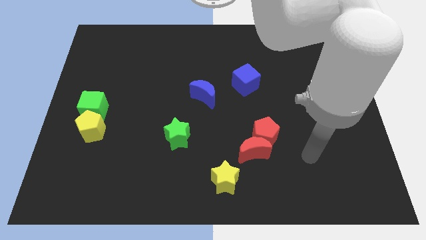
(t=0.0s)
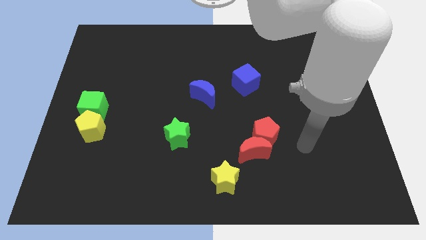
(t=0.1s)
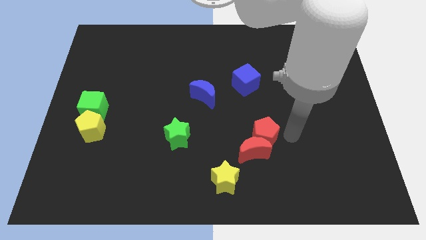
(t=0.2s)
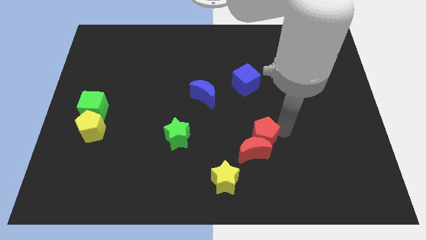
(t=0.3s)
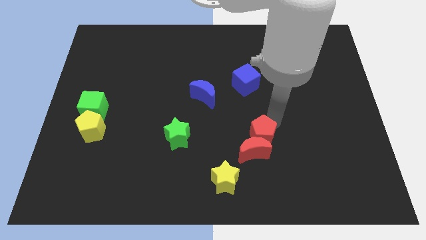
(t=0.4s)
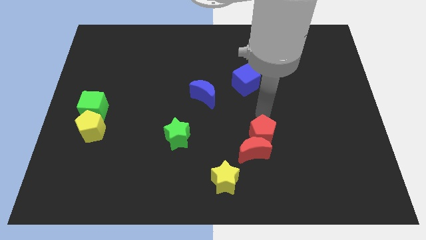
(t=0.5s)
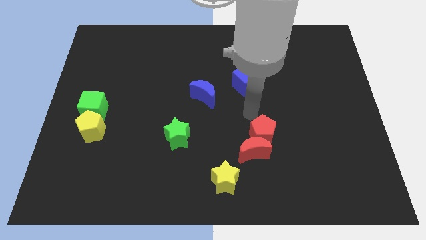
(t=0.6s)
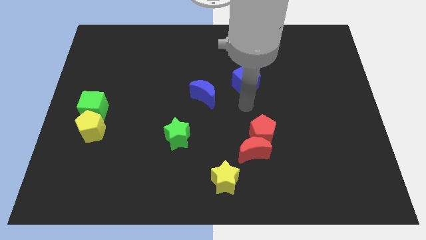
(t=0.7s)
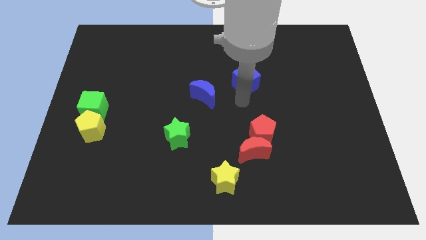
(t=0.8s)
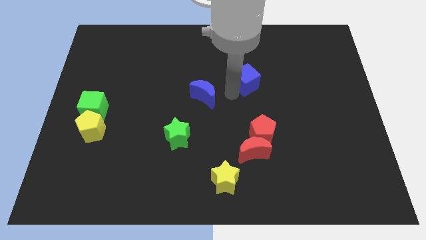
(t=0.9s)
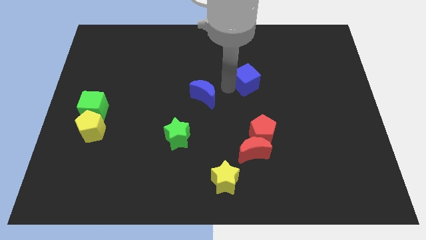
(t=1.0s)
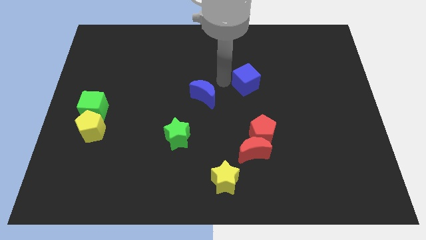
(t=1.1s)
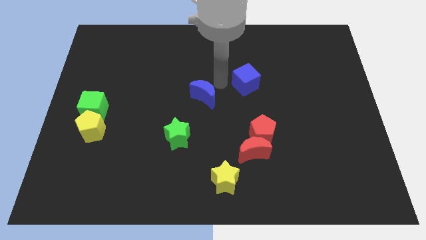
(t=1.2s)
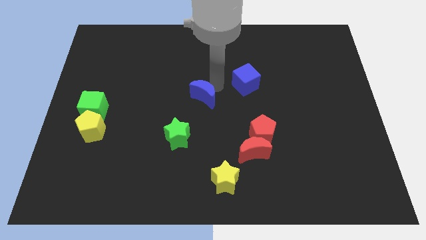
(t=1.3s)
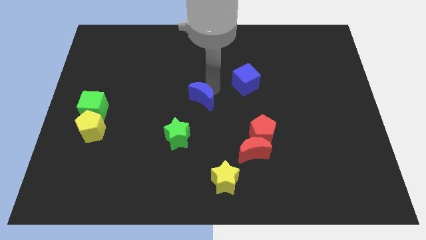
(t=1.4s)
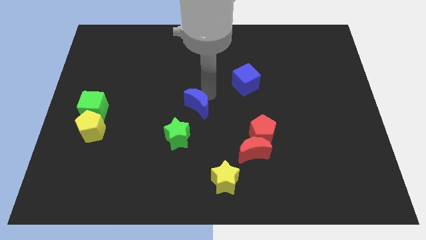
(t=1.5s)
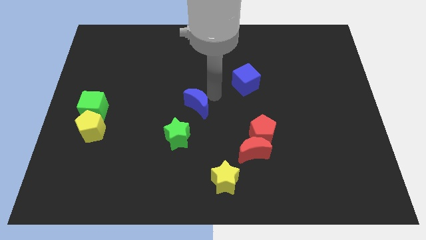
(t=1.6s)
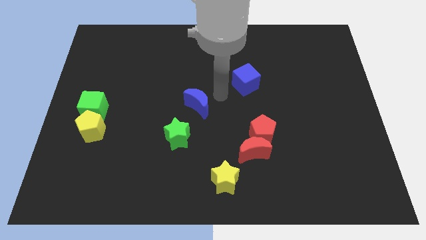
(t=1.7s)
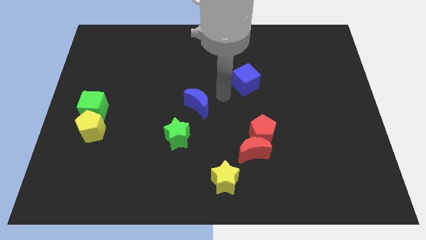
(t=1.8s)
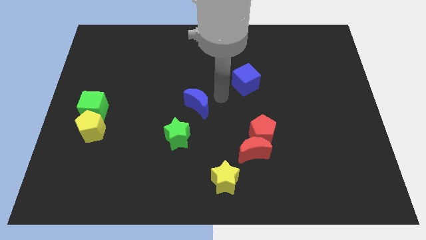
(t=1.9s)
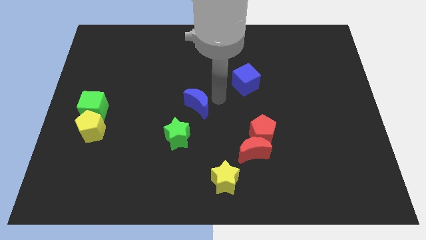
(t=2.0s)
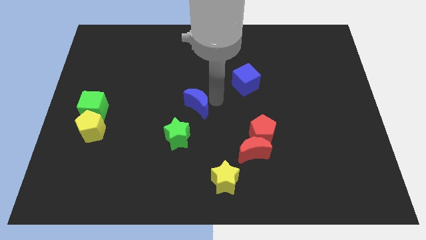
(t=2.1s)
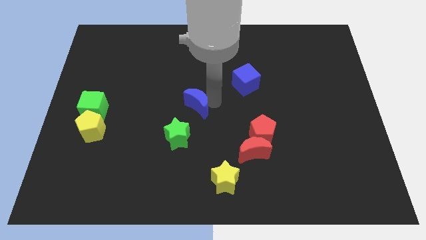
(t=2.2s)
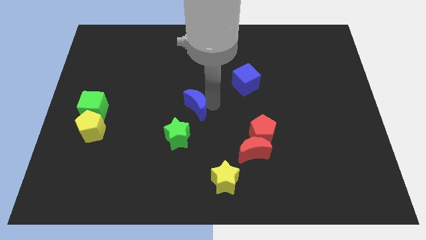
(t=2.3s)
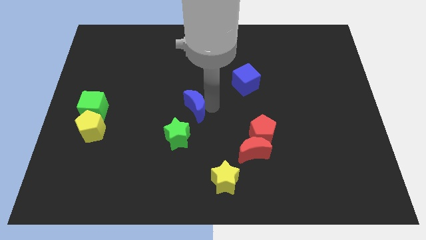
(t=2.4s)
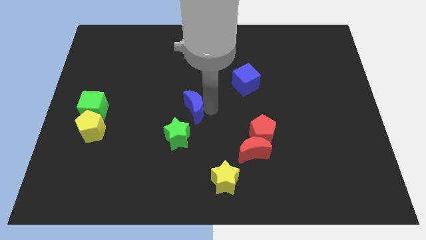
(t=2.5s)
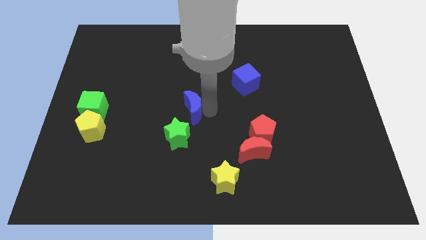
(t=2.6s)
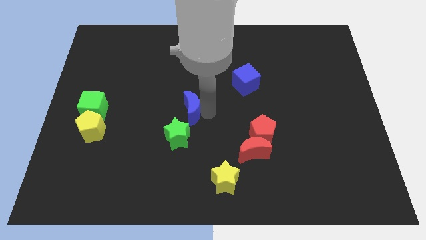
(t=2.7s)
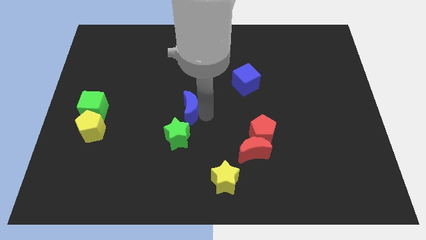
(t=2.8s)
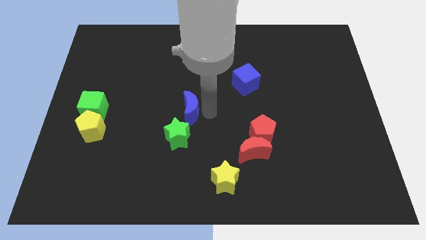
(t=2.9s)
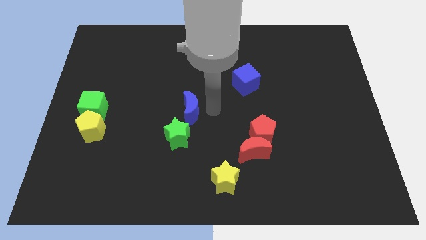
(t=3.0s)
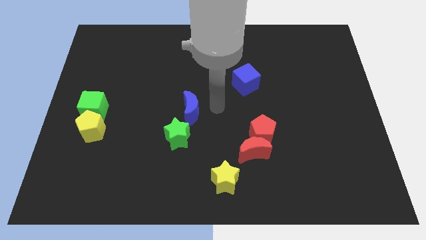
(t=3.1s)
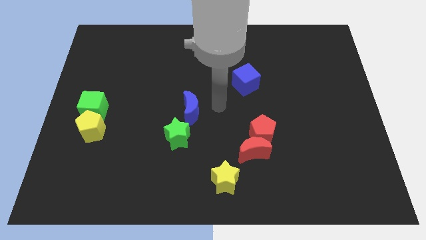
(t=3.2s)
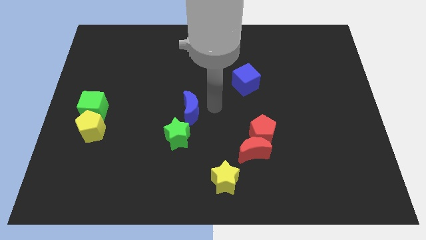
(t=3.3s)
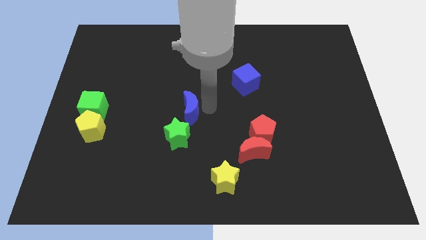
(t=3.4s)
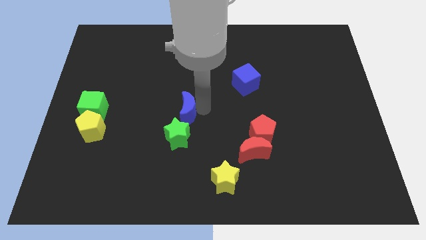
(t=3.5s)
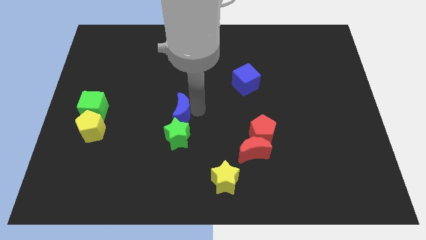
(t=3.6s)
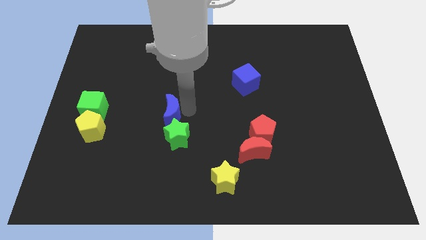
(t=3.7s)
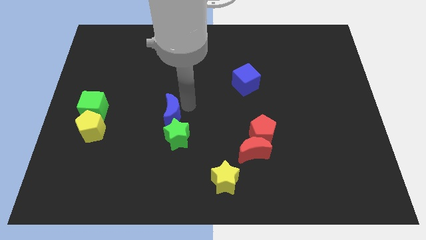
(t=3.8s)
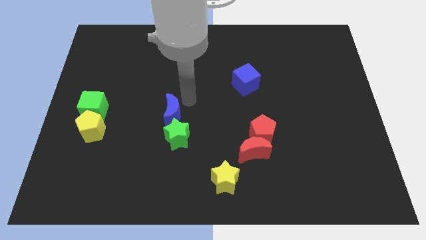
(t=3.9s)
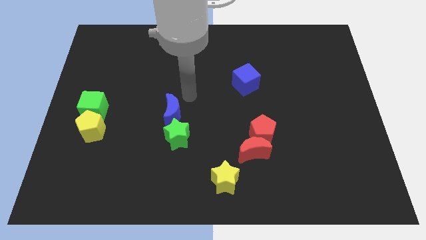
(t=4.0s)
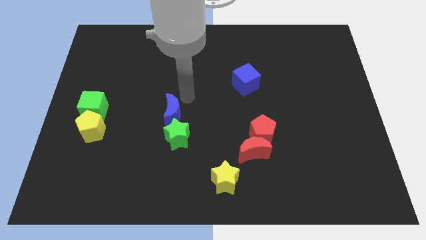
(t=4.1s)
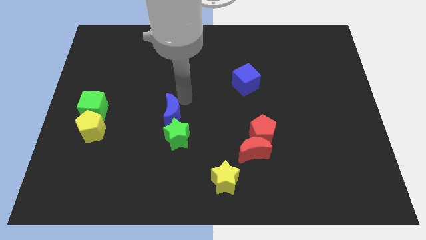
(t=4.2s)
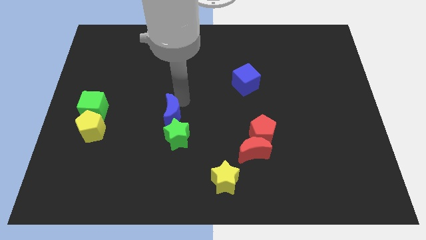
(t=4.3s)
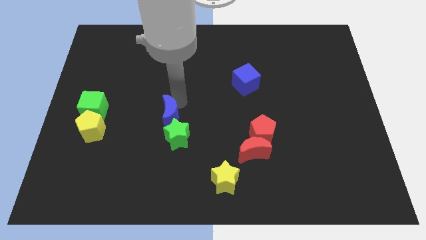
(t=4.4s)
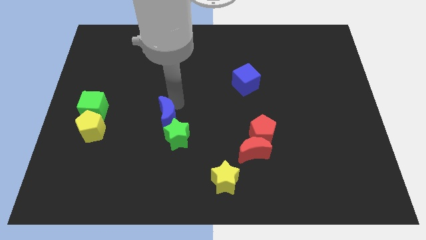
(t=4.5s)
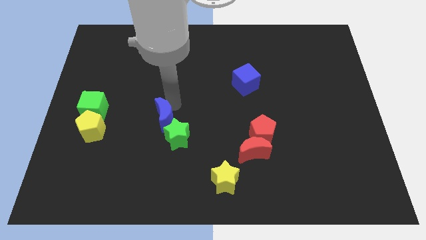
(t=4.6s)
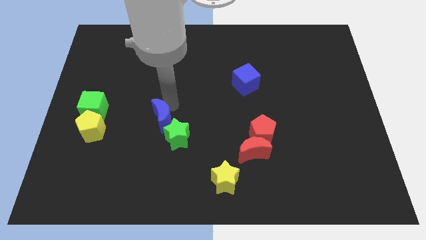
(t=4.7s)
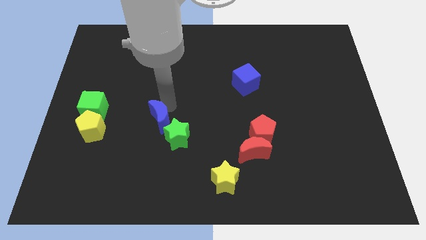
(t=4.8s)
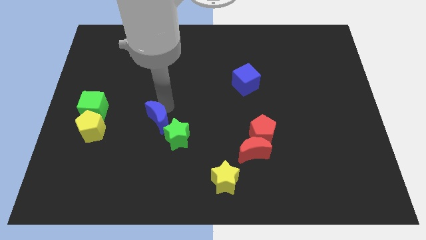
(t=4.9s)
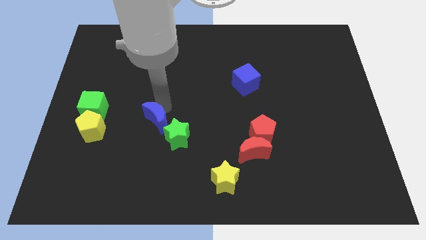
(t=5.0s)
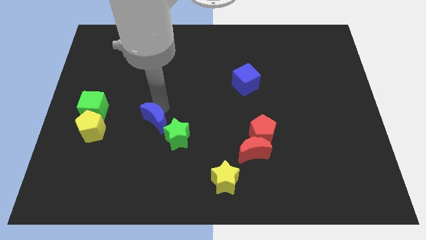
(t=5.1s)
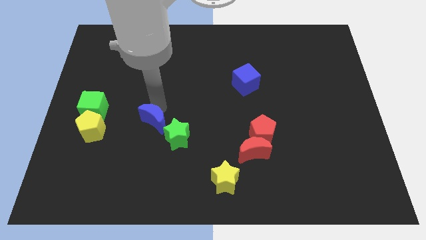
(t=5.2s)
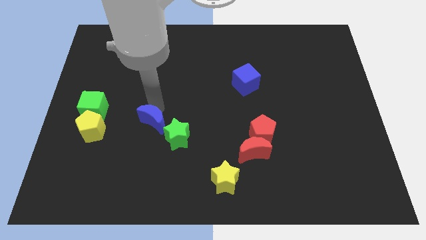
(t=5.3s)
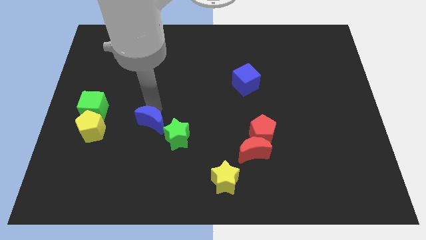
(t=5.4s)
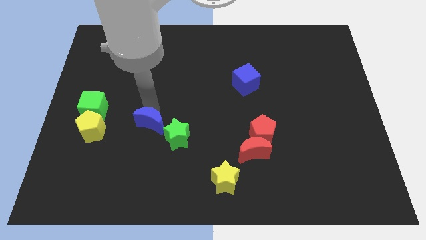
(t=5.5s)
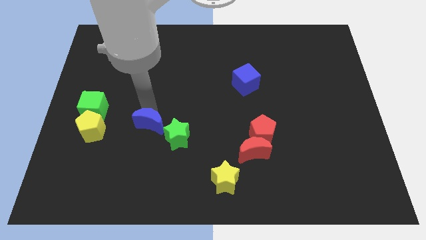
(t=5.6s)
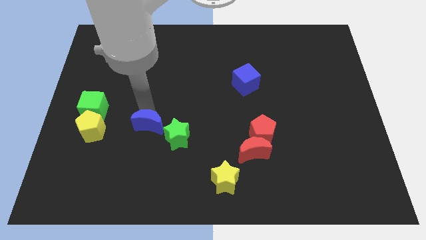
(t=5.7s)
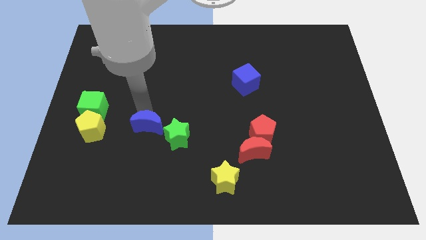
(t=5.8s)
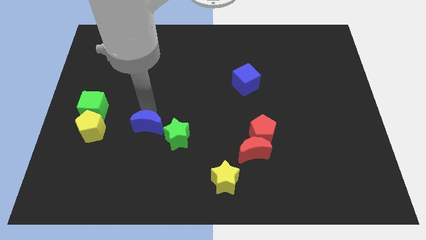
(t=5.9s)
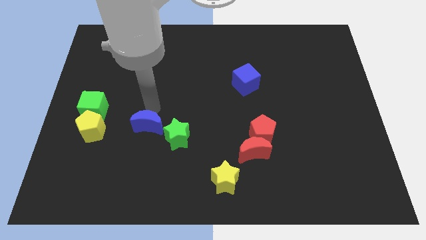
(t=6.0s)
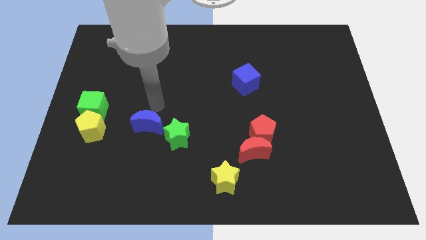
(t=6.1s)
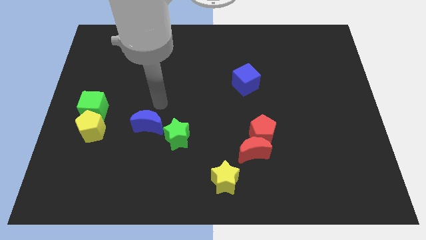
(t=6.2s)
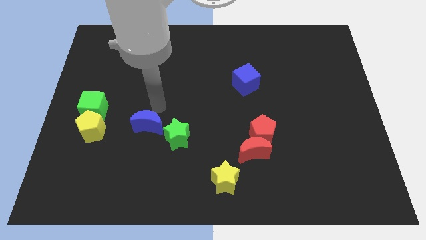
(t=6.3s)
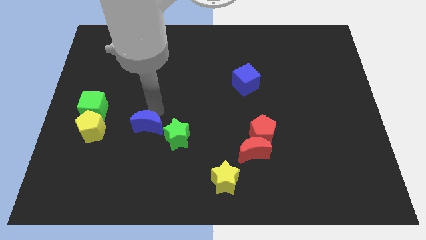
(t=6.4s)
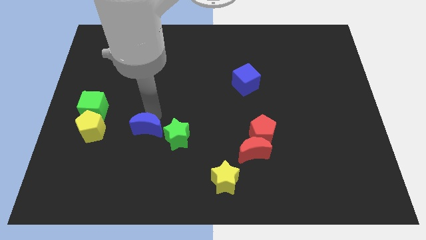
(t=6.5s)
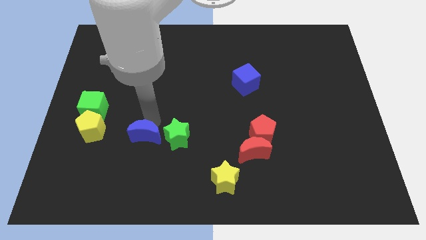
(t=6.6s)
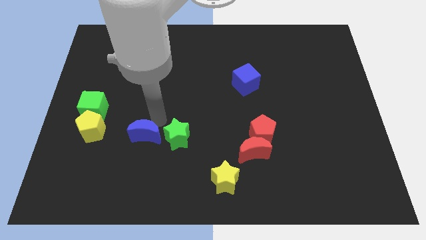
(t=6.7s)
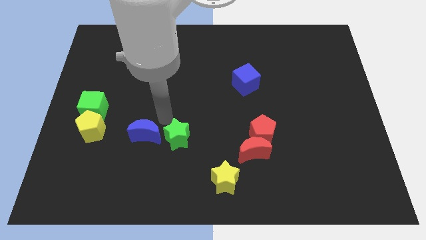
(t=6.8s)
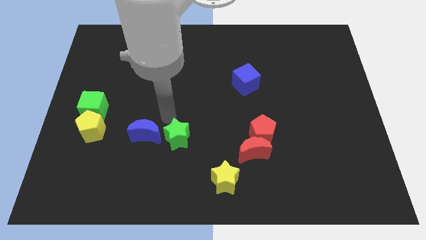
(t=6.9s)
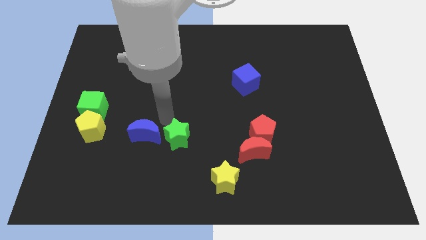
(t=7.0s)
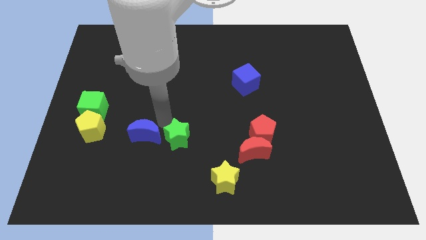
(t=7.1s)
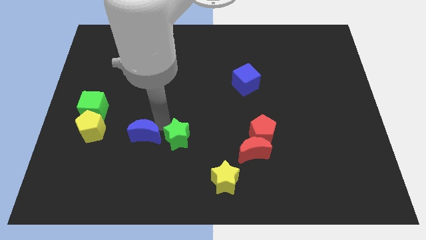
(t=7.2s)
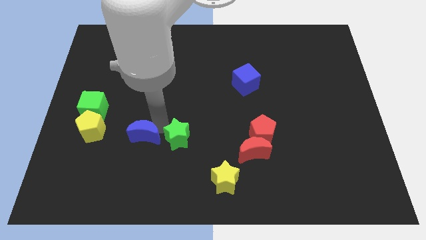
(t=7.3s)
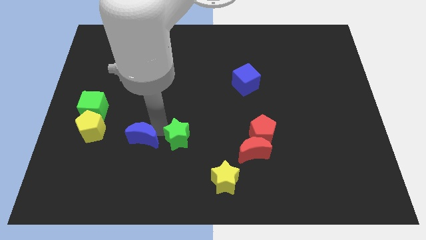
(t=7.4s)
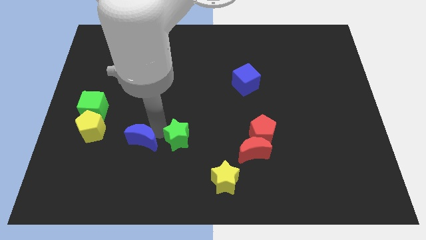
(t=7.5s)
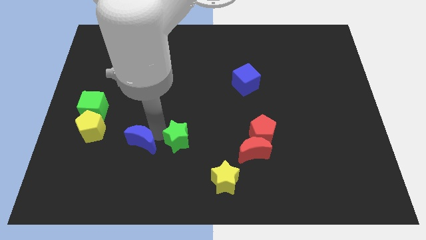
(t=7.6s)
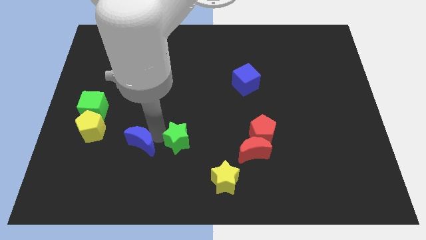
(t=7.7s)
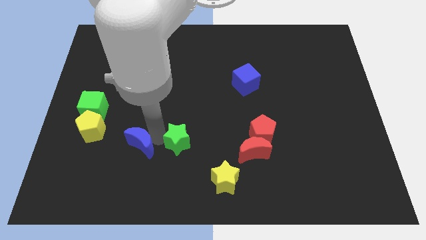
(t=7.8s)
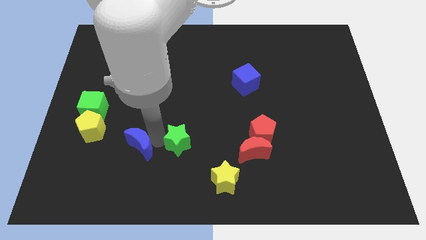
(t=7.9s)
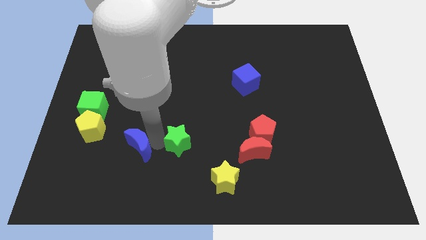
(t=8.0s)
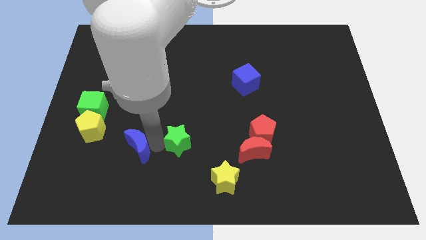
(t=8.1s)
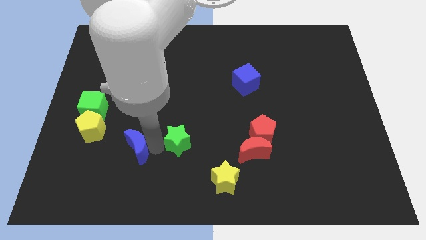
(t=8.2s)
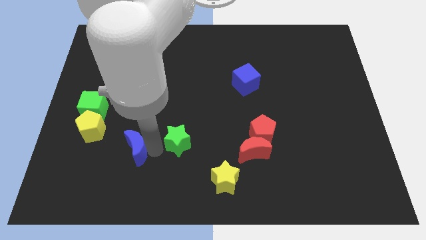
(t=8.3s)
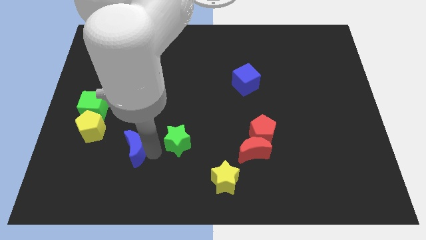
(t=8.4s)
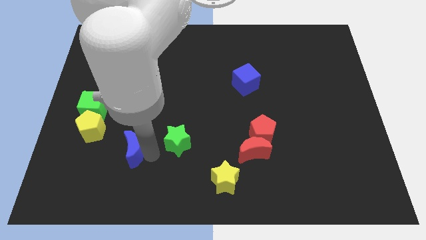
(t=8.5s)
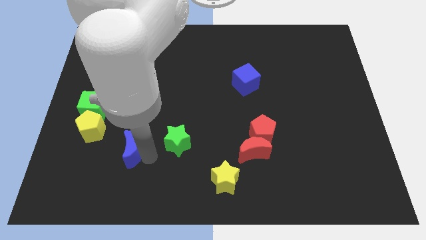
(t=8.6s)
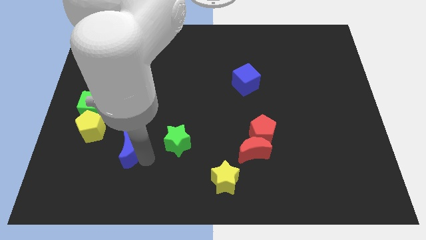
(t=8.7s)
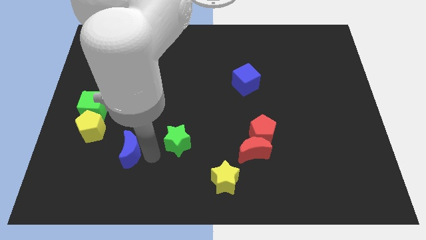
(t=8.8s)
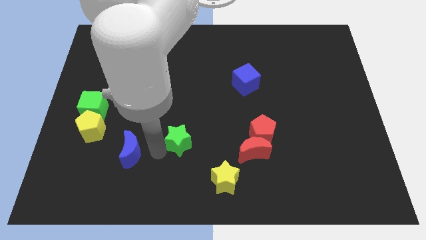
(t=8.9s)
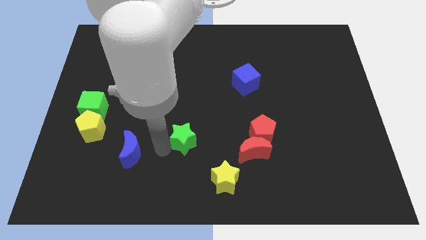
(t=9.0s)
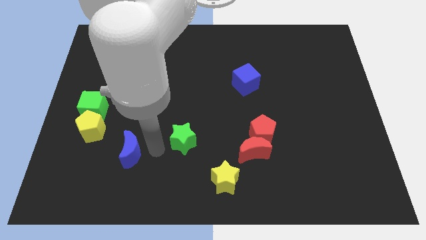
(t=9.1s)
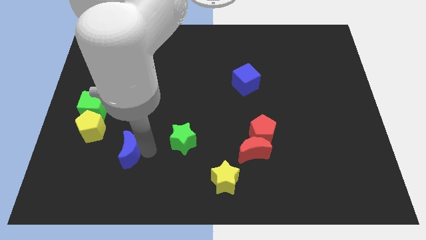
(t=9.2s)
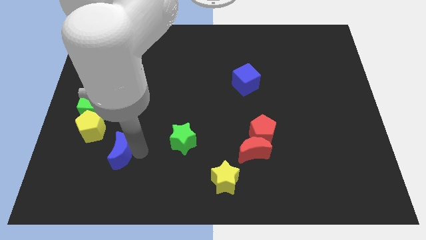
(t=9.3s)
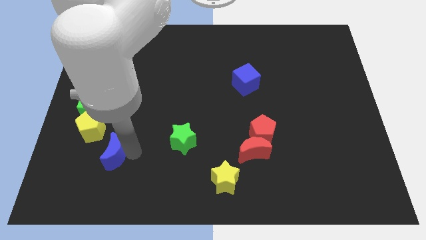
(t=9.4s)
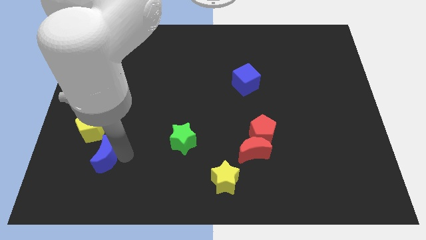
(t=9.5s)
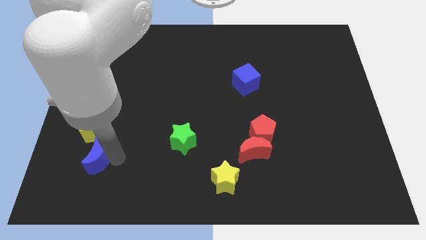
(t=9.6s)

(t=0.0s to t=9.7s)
move the blue moon to the bottom side of the green cube
